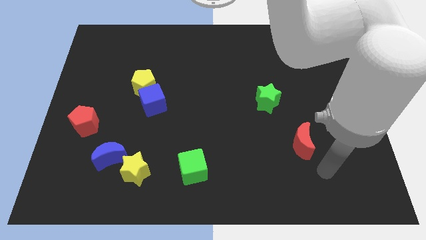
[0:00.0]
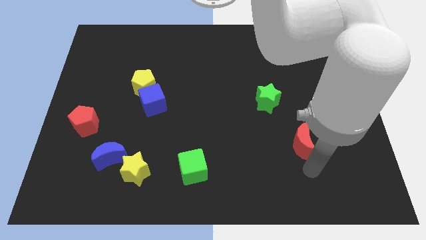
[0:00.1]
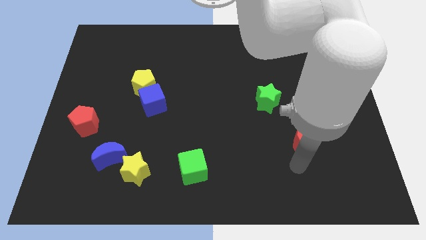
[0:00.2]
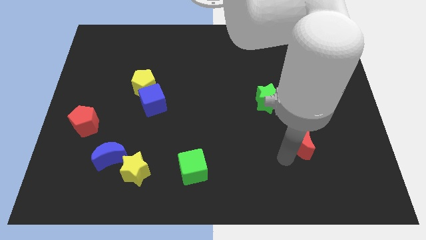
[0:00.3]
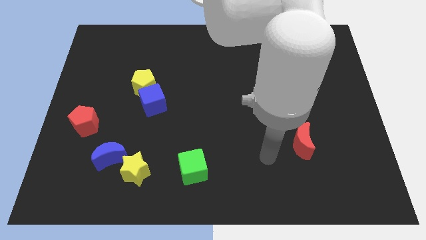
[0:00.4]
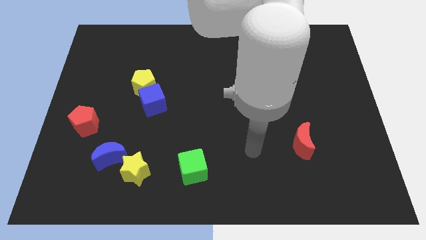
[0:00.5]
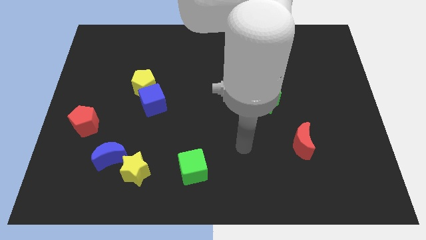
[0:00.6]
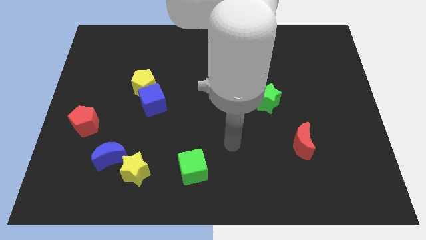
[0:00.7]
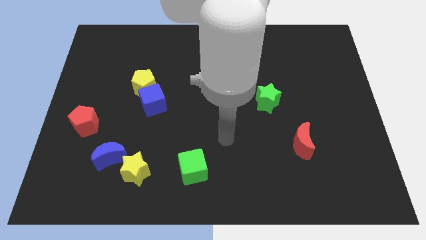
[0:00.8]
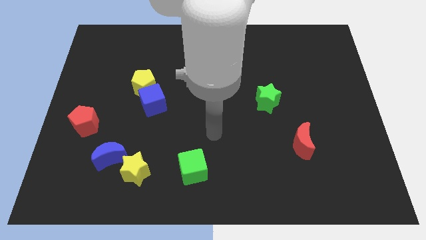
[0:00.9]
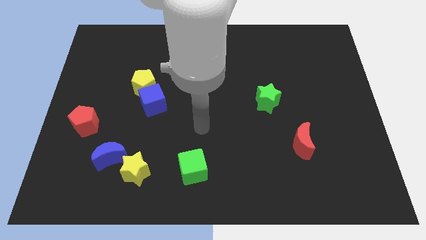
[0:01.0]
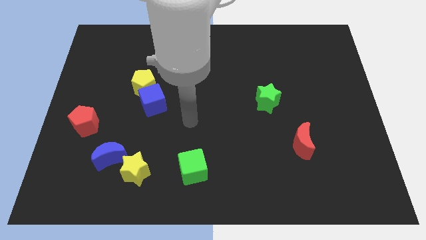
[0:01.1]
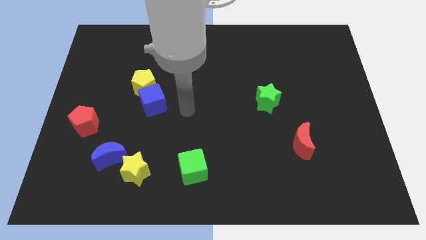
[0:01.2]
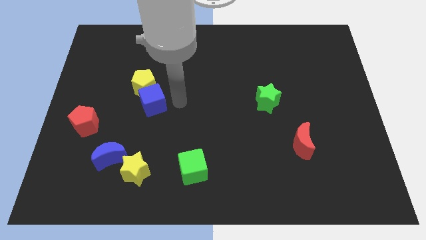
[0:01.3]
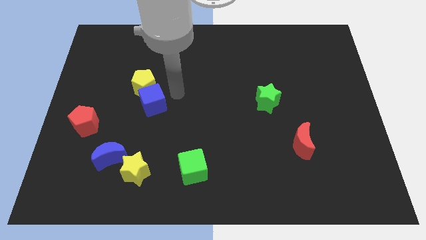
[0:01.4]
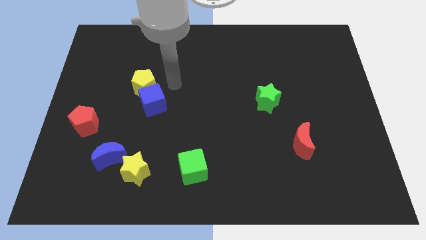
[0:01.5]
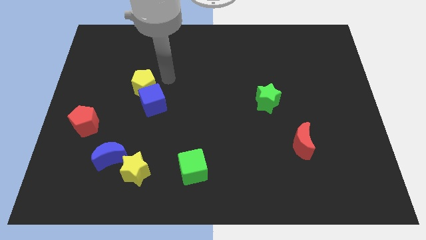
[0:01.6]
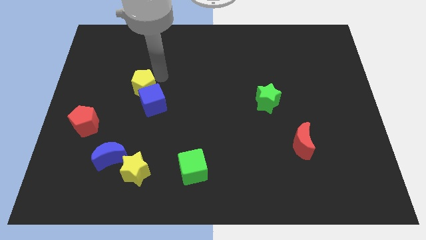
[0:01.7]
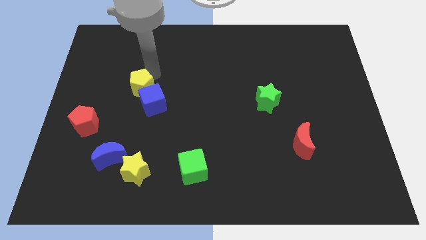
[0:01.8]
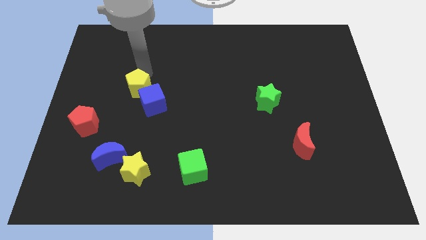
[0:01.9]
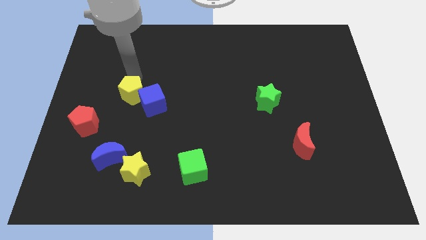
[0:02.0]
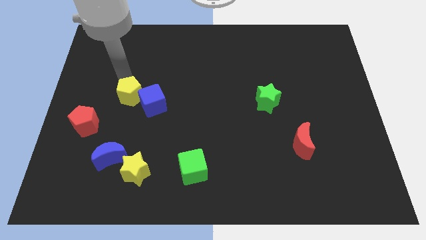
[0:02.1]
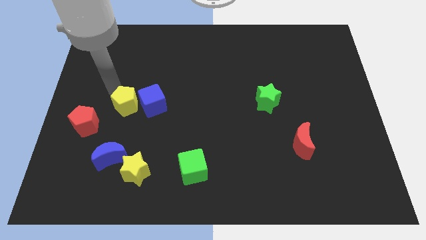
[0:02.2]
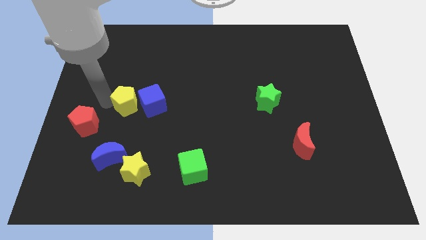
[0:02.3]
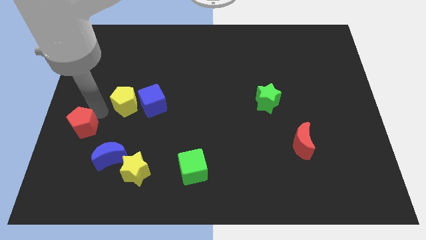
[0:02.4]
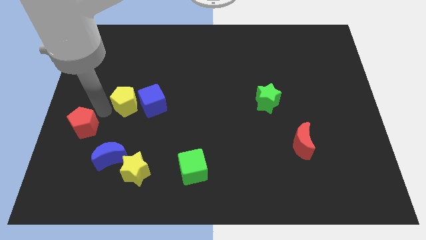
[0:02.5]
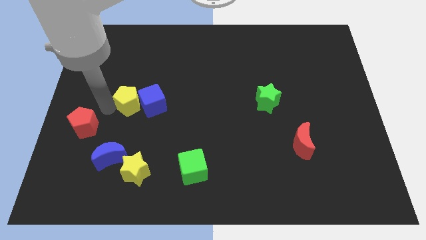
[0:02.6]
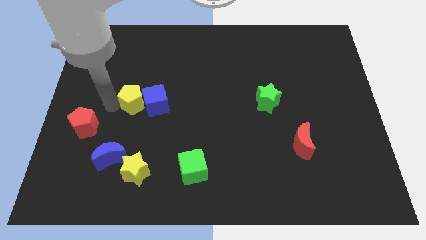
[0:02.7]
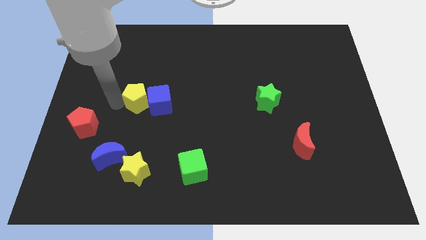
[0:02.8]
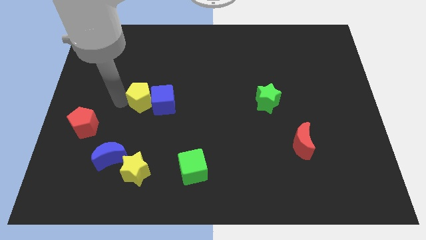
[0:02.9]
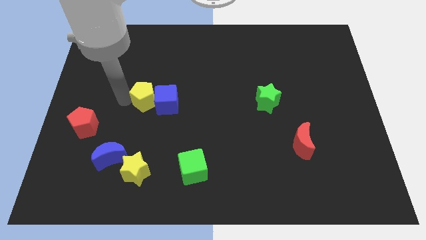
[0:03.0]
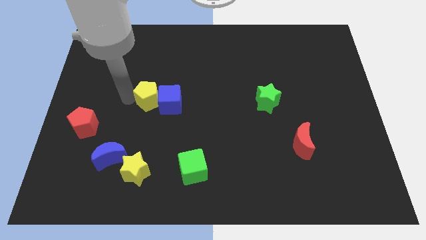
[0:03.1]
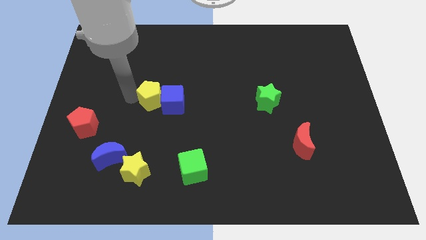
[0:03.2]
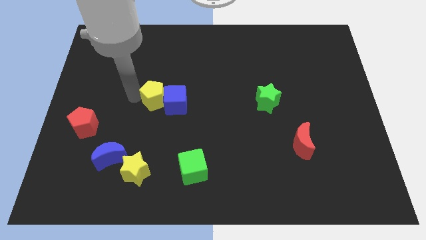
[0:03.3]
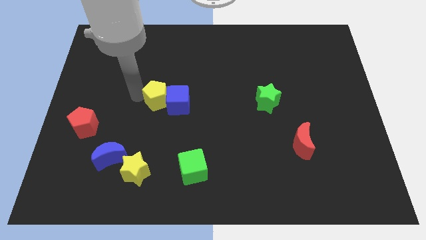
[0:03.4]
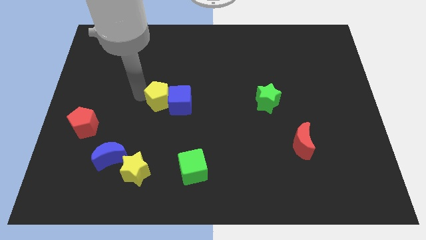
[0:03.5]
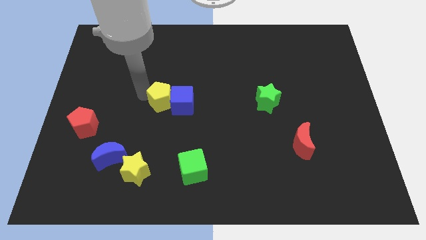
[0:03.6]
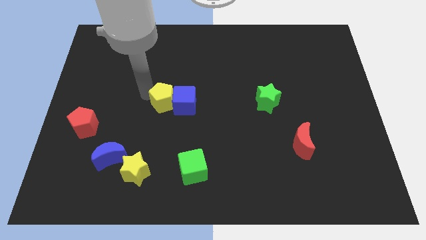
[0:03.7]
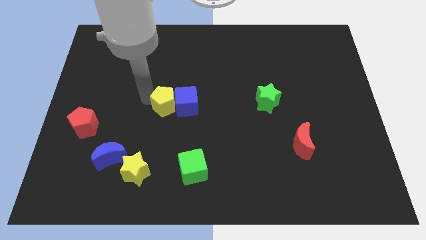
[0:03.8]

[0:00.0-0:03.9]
move the yellow pentagon down and then right slightly

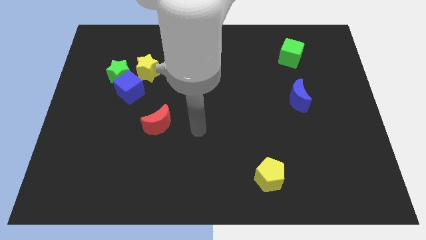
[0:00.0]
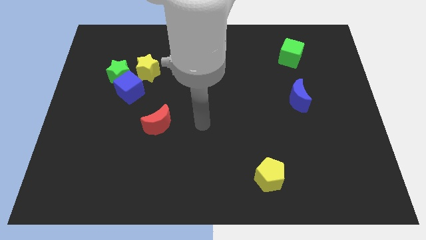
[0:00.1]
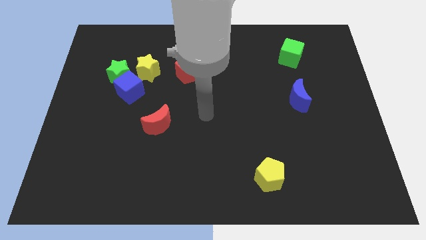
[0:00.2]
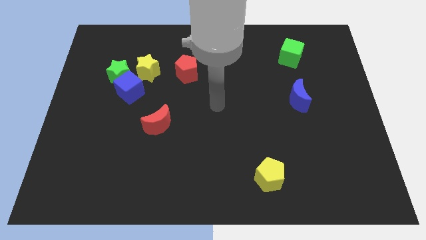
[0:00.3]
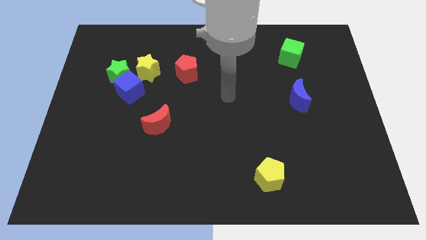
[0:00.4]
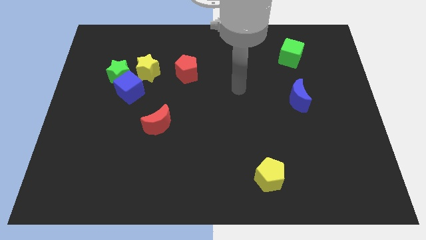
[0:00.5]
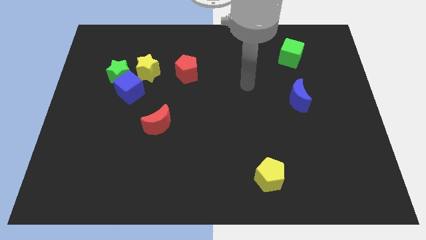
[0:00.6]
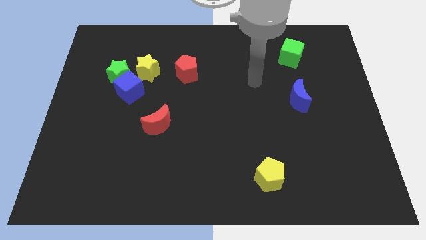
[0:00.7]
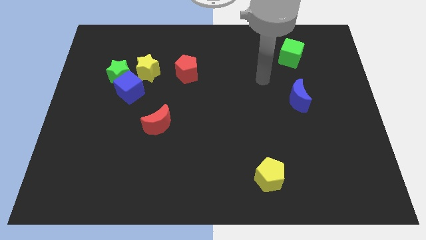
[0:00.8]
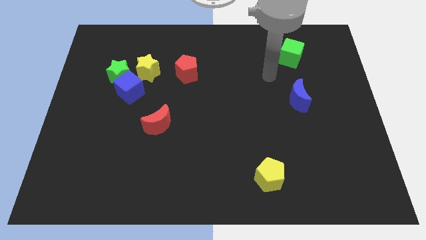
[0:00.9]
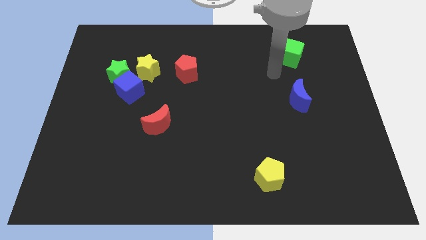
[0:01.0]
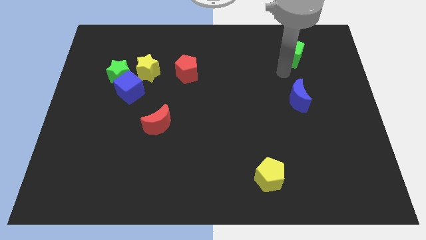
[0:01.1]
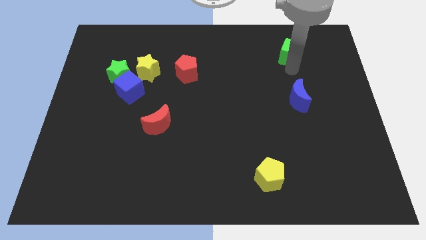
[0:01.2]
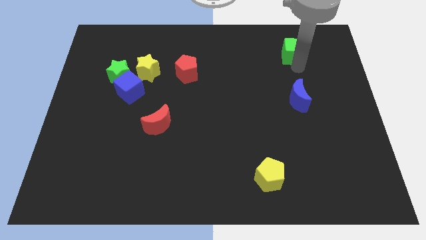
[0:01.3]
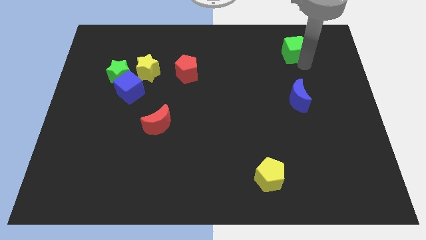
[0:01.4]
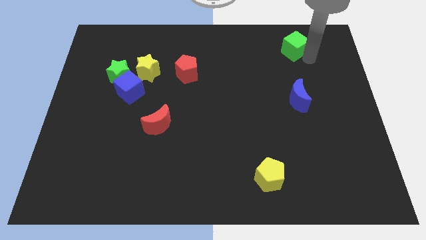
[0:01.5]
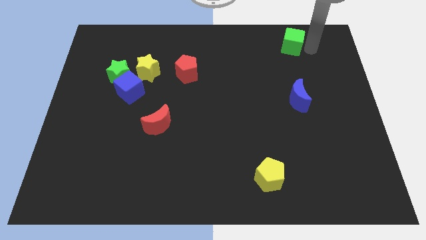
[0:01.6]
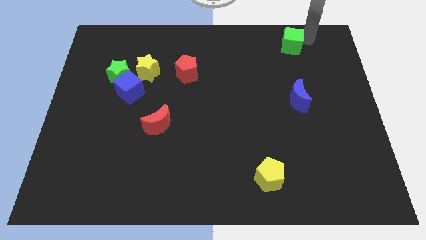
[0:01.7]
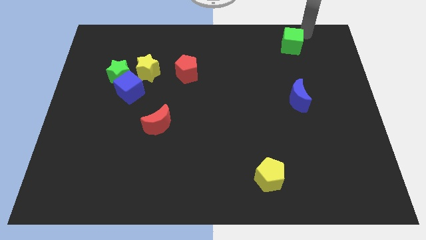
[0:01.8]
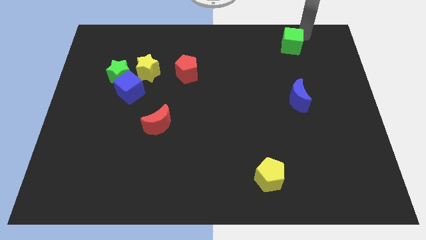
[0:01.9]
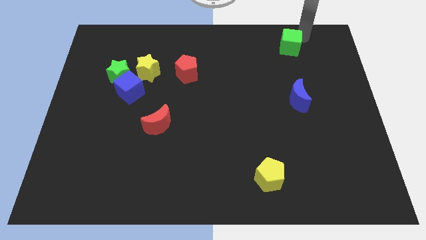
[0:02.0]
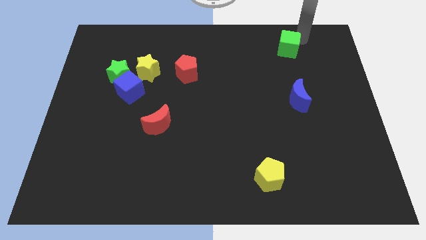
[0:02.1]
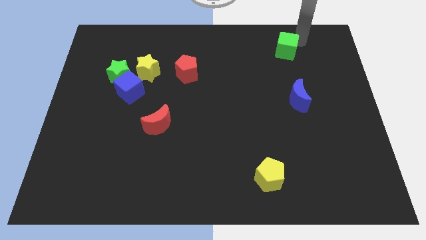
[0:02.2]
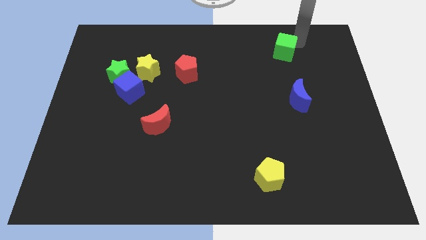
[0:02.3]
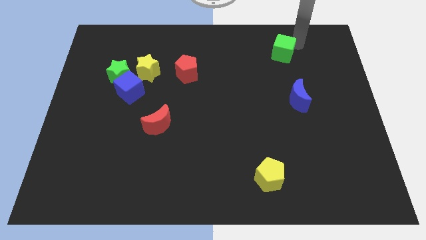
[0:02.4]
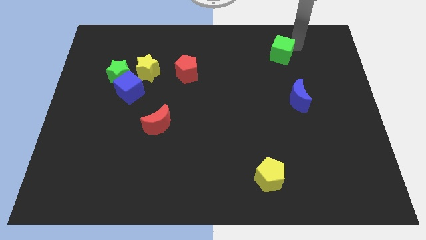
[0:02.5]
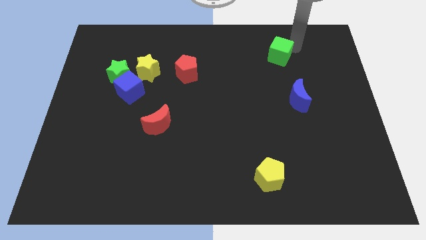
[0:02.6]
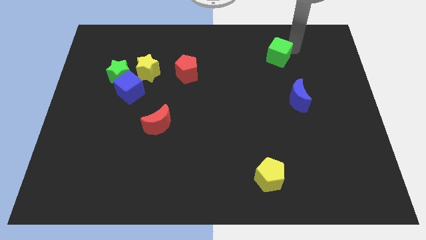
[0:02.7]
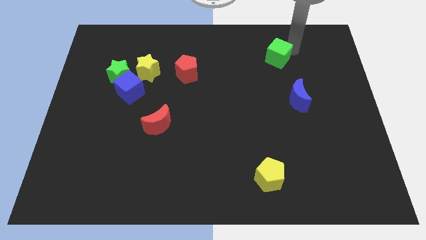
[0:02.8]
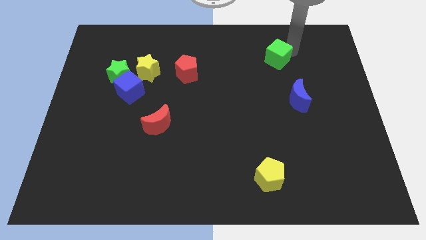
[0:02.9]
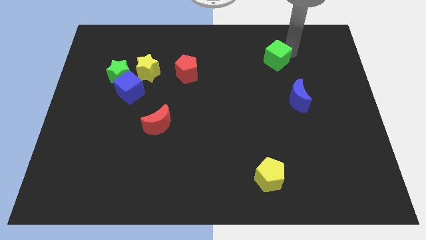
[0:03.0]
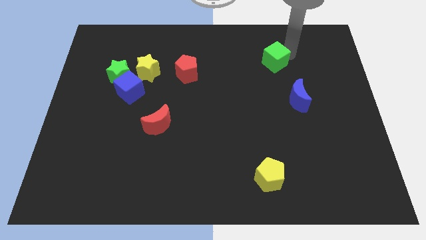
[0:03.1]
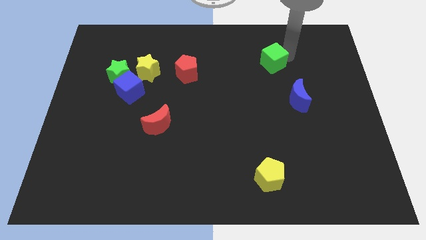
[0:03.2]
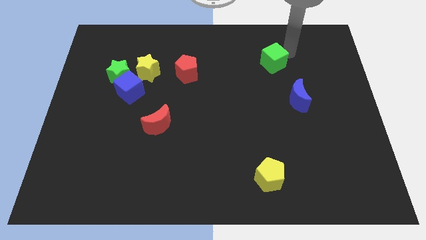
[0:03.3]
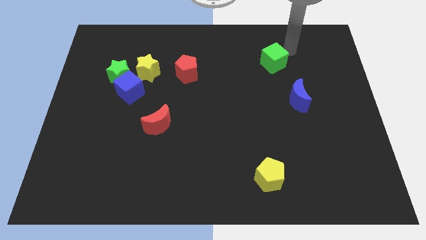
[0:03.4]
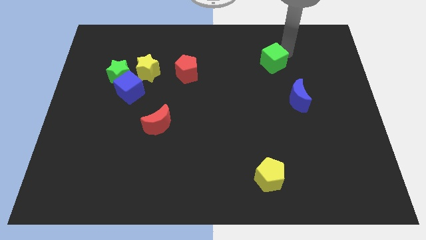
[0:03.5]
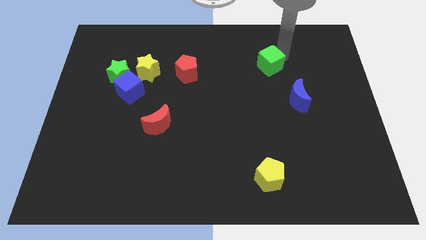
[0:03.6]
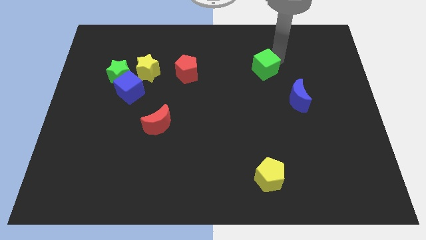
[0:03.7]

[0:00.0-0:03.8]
push the green cube downwards and to the left somewhat
